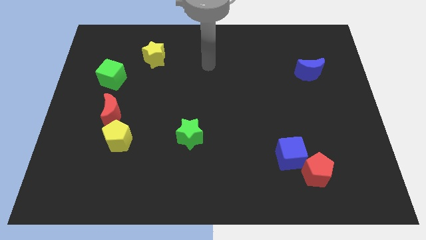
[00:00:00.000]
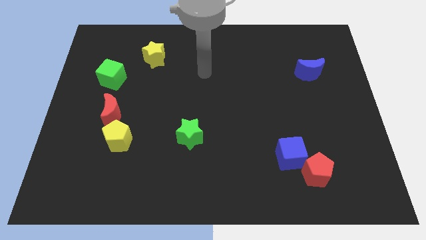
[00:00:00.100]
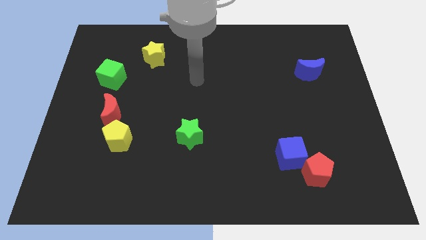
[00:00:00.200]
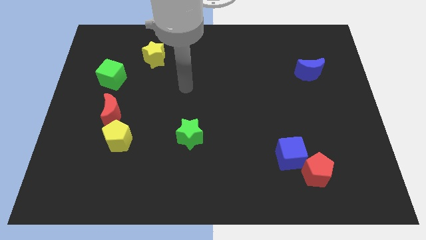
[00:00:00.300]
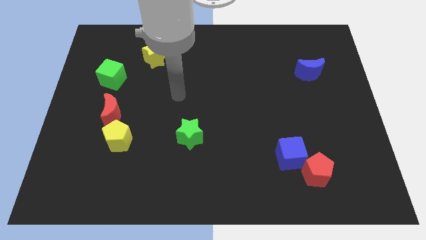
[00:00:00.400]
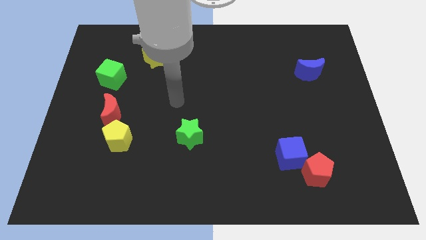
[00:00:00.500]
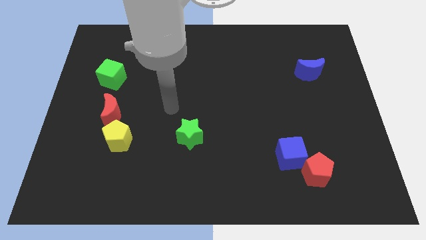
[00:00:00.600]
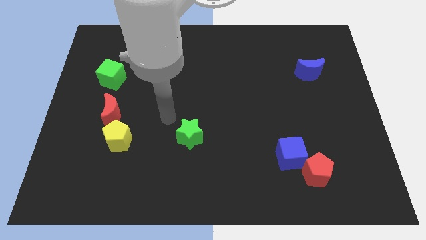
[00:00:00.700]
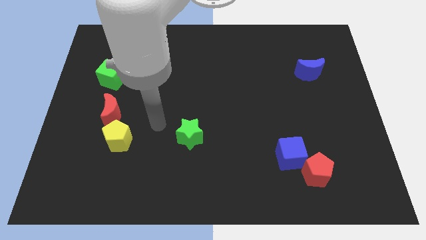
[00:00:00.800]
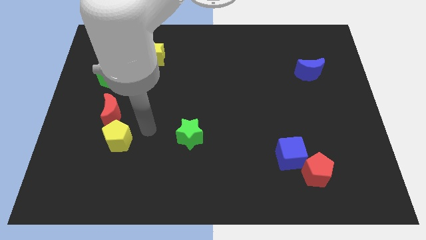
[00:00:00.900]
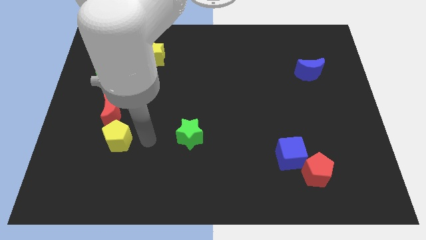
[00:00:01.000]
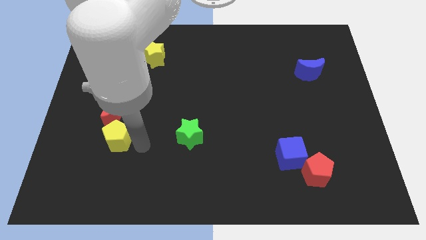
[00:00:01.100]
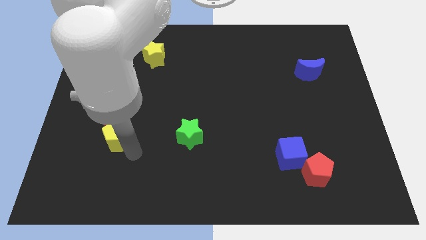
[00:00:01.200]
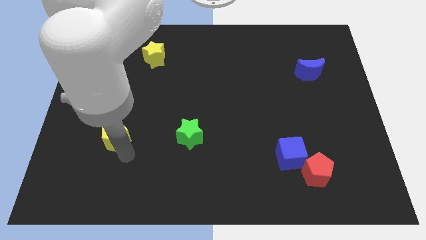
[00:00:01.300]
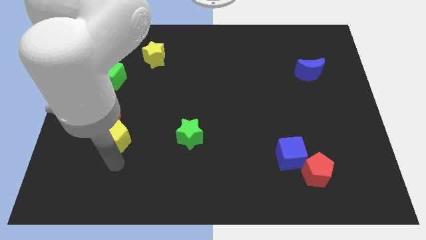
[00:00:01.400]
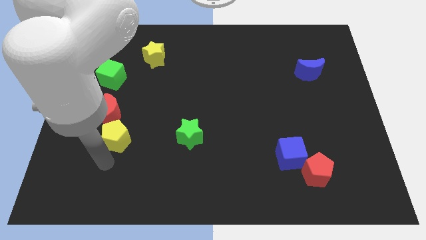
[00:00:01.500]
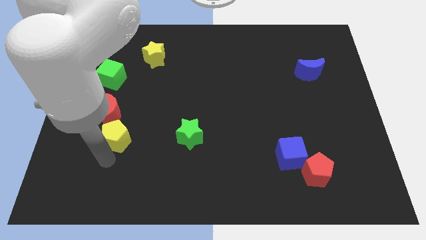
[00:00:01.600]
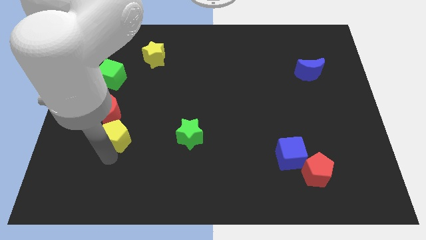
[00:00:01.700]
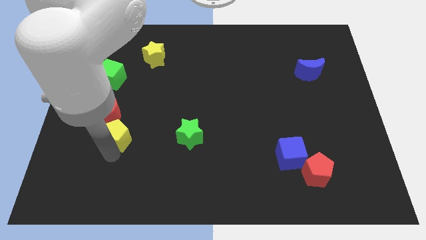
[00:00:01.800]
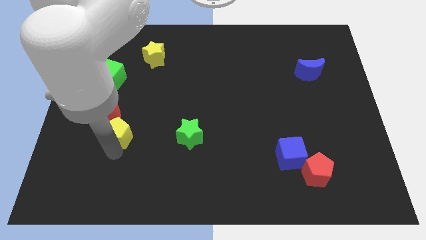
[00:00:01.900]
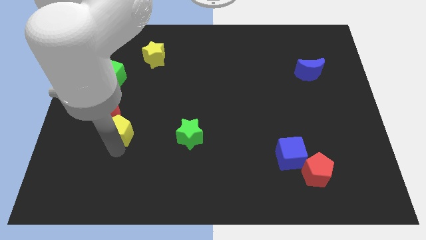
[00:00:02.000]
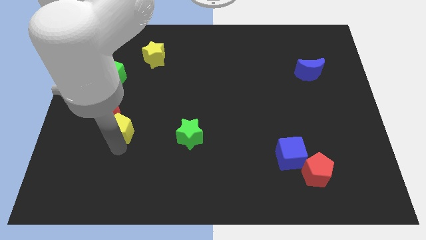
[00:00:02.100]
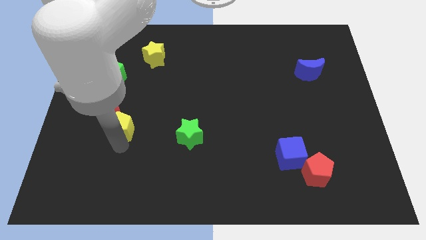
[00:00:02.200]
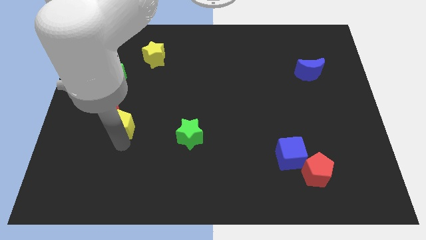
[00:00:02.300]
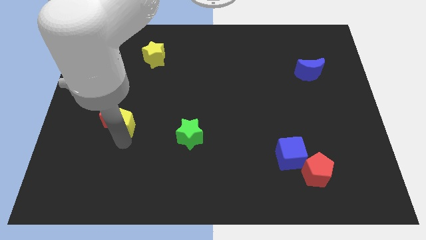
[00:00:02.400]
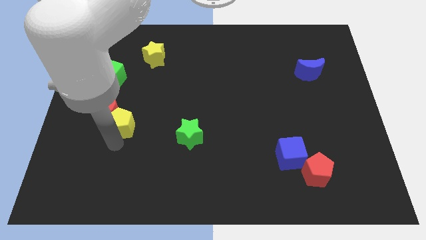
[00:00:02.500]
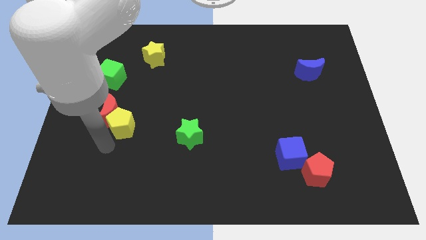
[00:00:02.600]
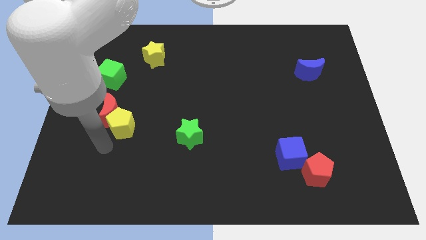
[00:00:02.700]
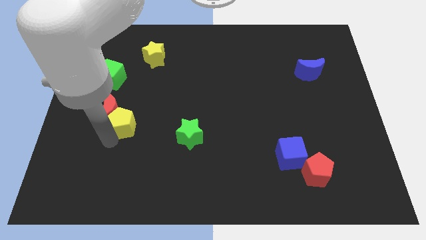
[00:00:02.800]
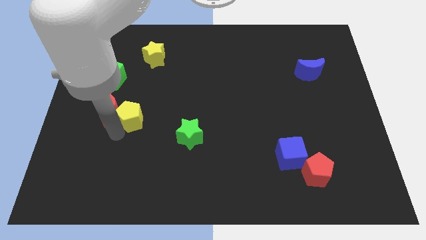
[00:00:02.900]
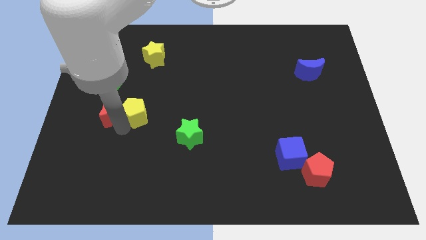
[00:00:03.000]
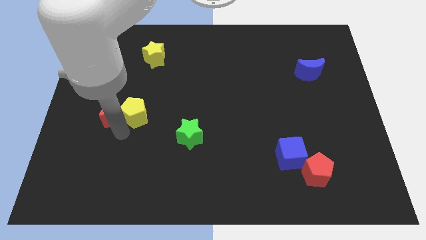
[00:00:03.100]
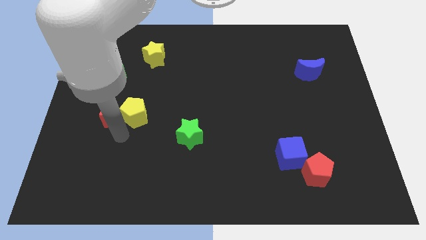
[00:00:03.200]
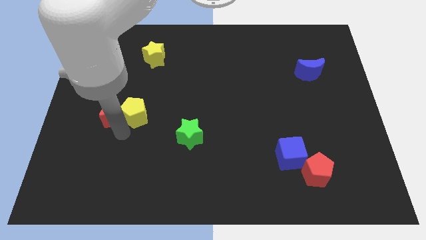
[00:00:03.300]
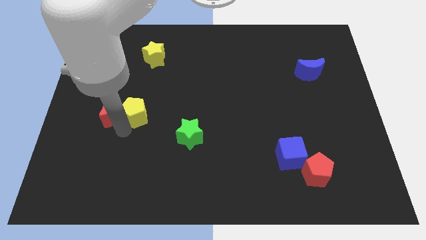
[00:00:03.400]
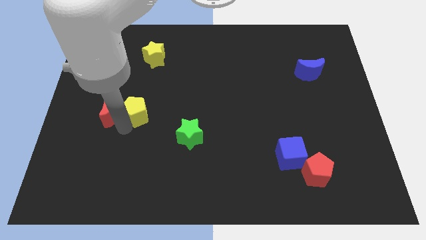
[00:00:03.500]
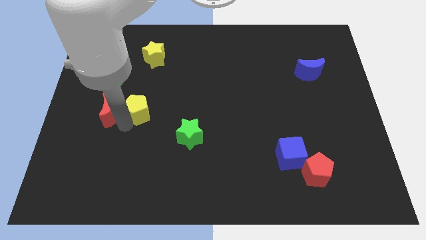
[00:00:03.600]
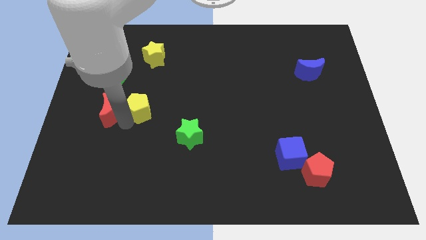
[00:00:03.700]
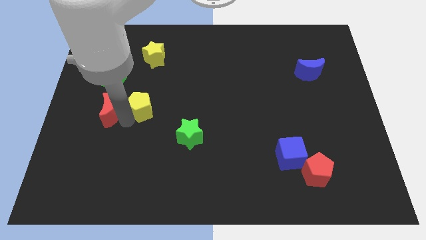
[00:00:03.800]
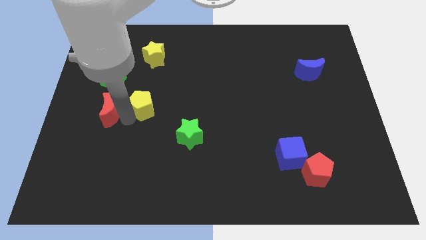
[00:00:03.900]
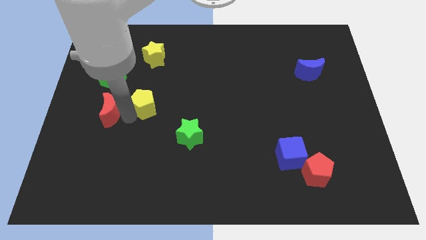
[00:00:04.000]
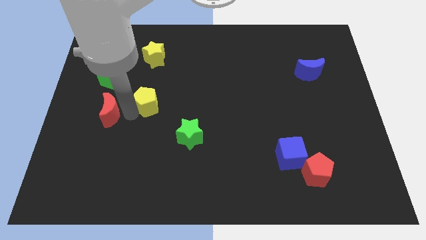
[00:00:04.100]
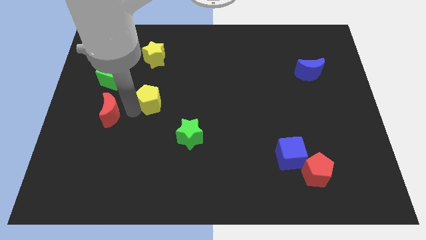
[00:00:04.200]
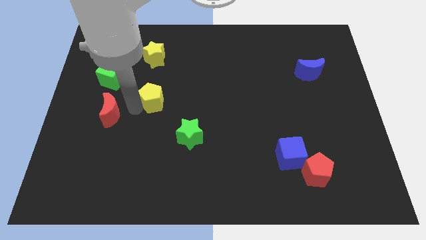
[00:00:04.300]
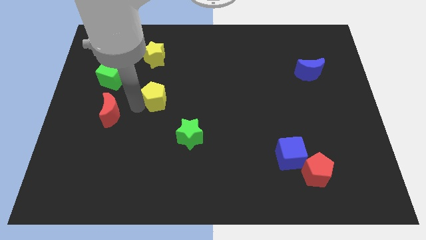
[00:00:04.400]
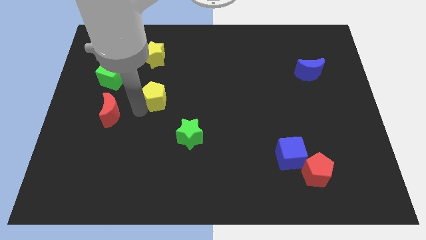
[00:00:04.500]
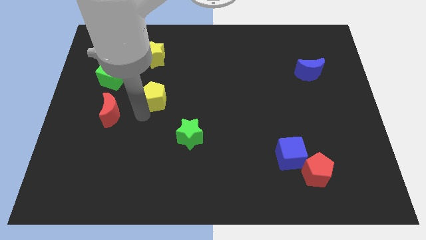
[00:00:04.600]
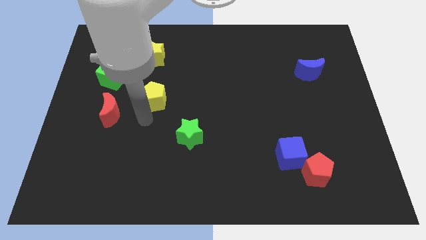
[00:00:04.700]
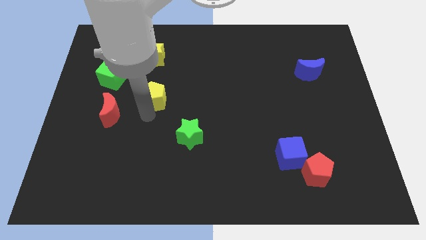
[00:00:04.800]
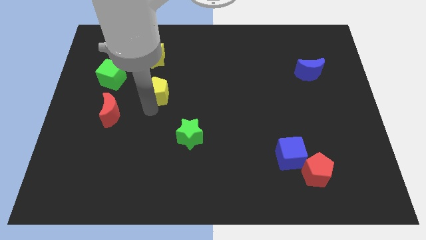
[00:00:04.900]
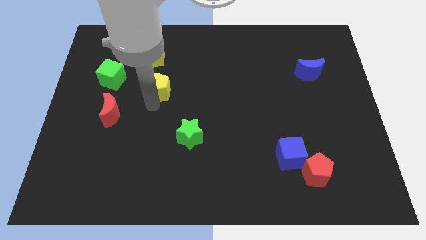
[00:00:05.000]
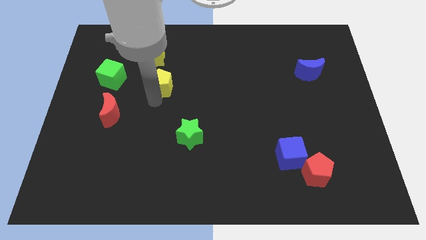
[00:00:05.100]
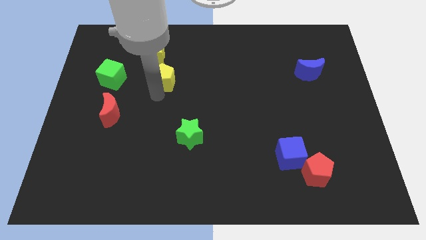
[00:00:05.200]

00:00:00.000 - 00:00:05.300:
push the yellow pentagon to the bottom right of the yellow star

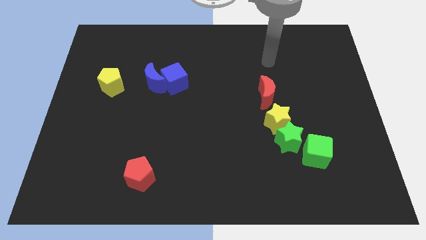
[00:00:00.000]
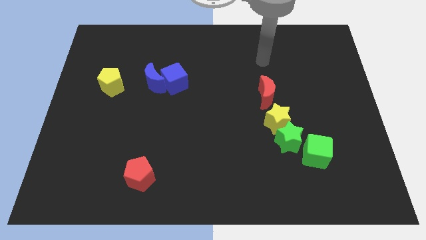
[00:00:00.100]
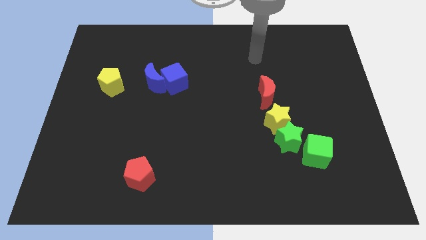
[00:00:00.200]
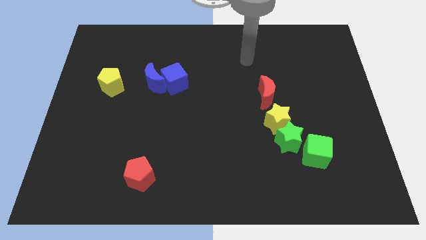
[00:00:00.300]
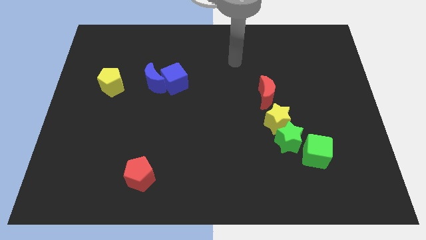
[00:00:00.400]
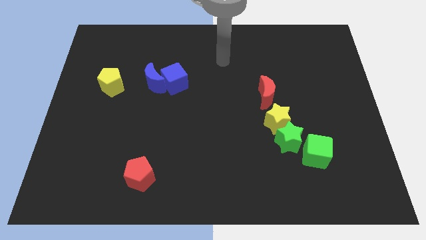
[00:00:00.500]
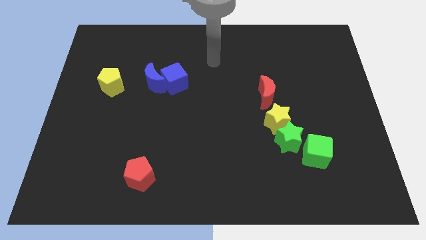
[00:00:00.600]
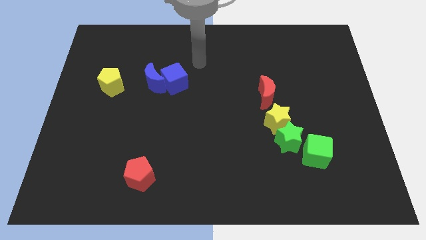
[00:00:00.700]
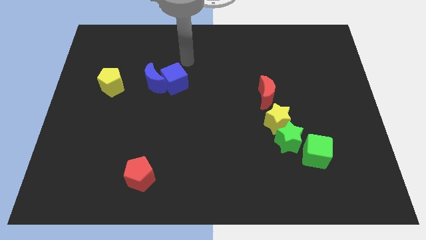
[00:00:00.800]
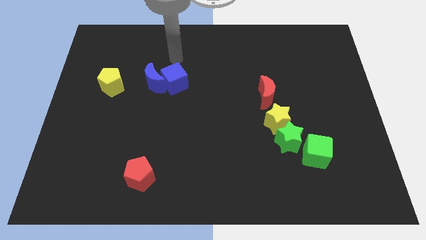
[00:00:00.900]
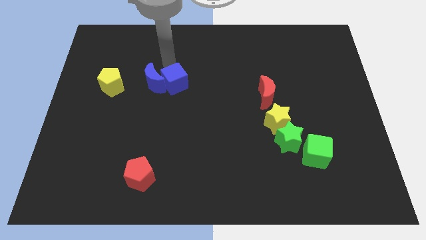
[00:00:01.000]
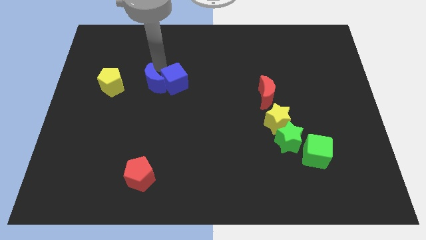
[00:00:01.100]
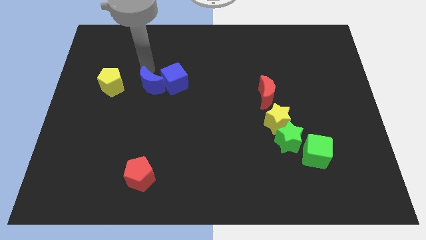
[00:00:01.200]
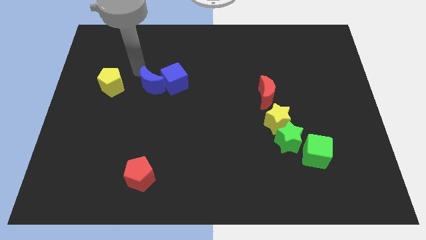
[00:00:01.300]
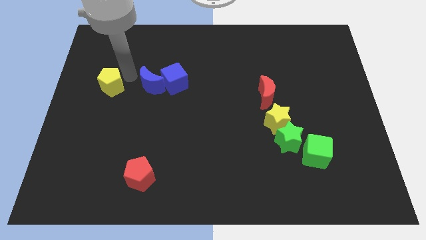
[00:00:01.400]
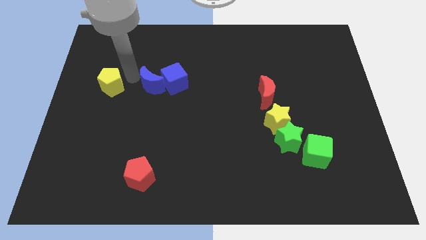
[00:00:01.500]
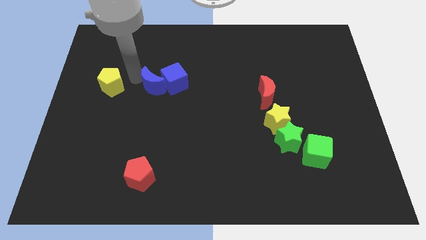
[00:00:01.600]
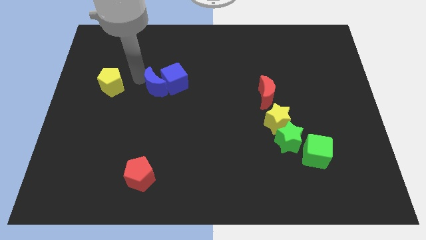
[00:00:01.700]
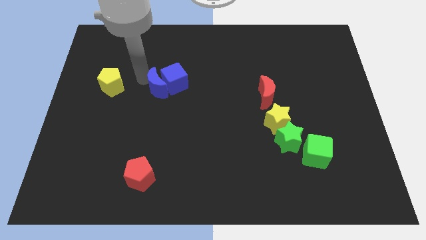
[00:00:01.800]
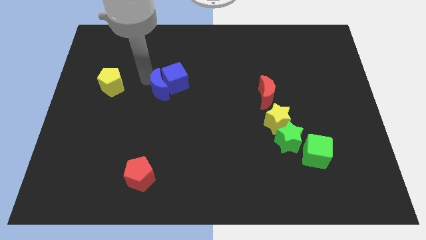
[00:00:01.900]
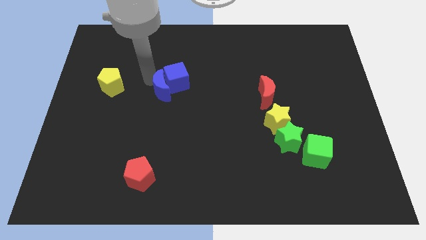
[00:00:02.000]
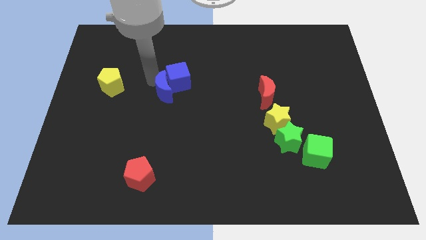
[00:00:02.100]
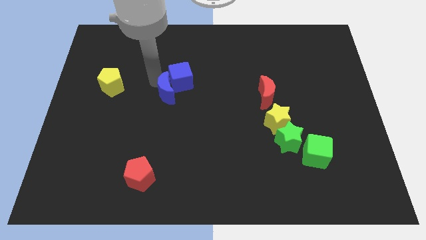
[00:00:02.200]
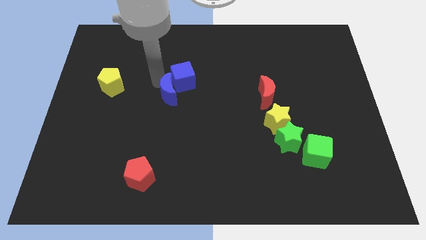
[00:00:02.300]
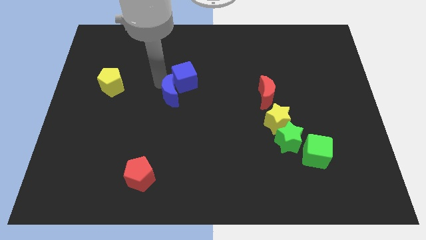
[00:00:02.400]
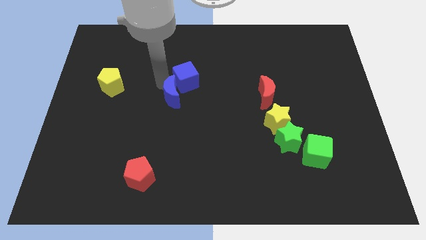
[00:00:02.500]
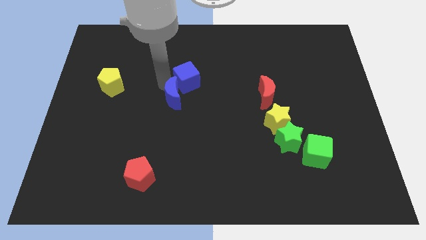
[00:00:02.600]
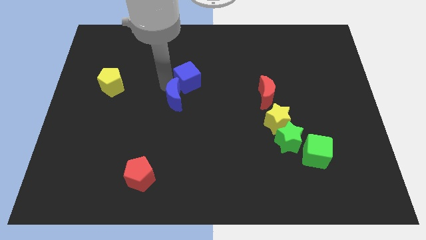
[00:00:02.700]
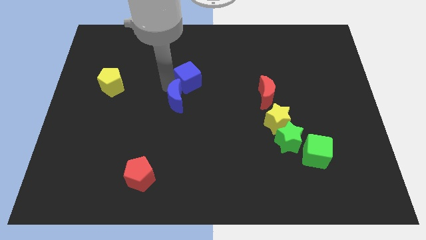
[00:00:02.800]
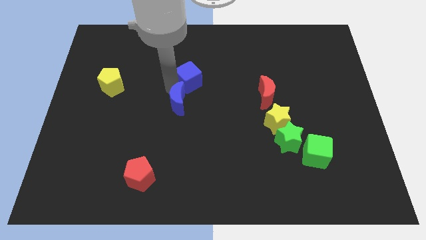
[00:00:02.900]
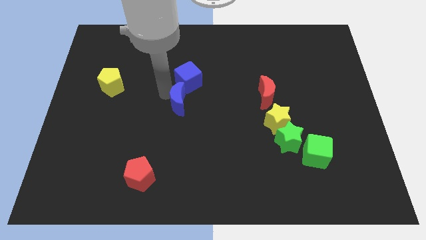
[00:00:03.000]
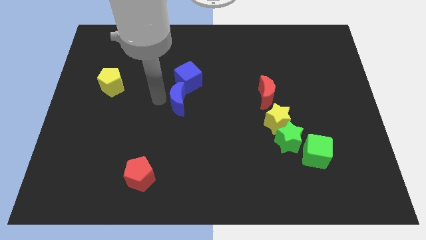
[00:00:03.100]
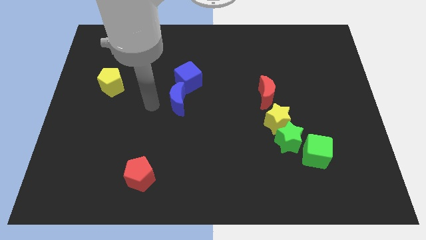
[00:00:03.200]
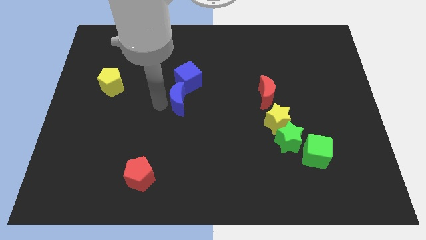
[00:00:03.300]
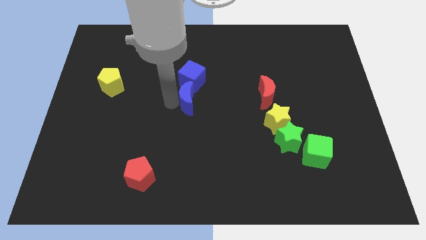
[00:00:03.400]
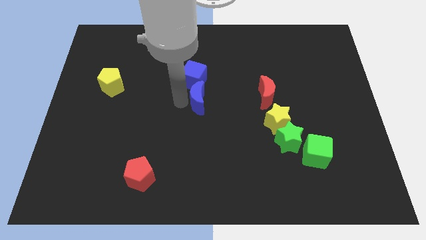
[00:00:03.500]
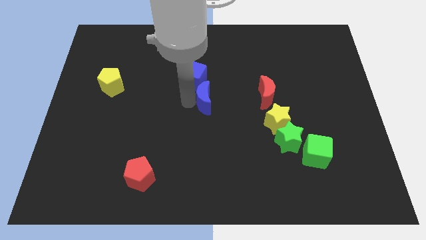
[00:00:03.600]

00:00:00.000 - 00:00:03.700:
put the blue moon left of the red moon
